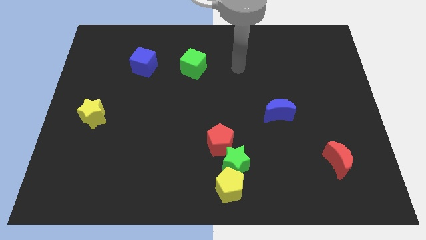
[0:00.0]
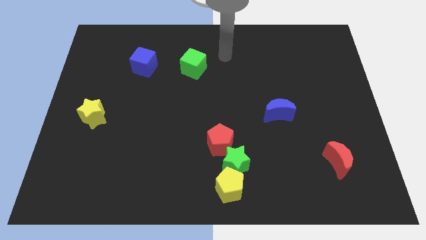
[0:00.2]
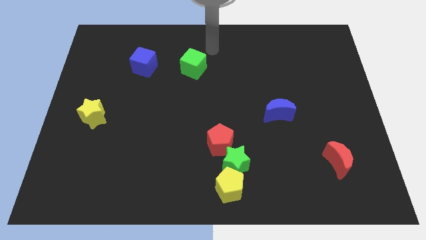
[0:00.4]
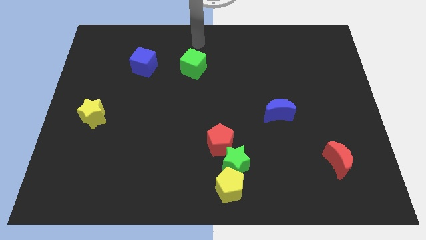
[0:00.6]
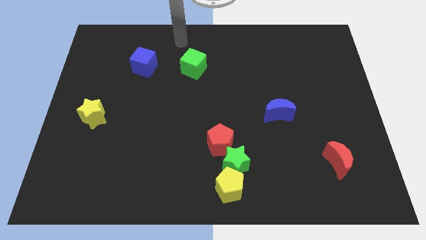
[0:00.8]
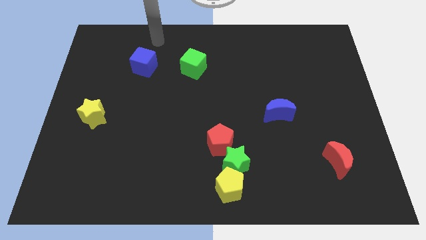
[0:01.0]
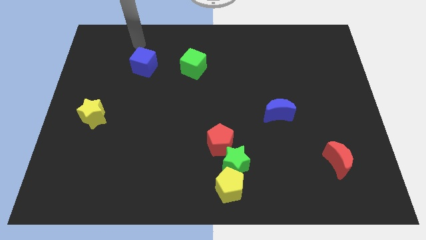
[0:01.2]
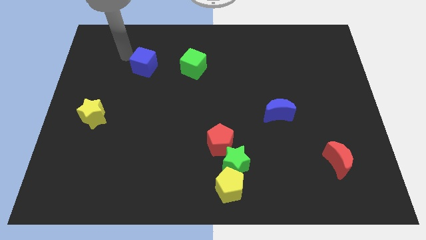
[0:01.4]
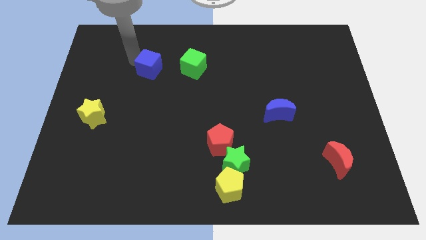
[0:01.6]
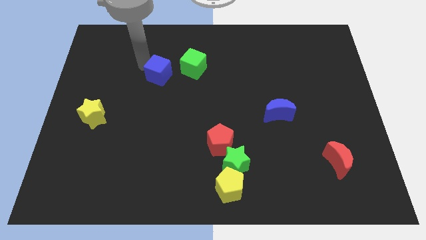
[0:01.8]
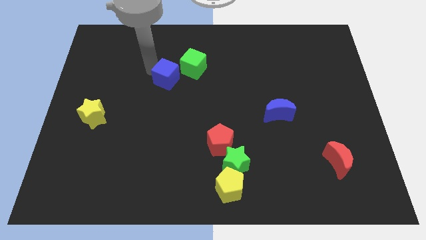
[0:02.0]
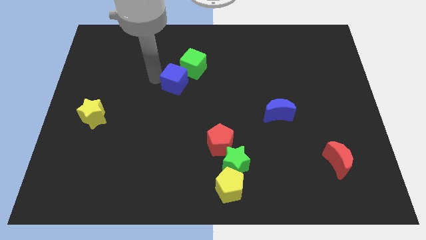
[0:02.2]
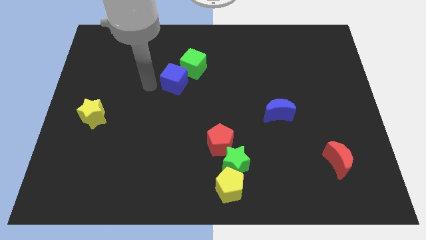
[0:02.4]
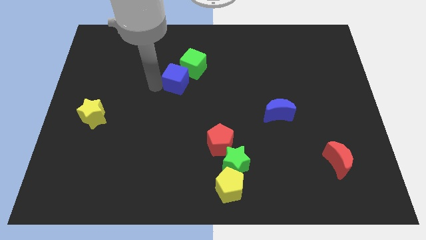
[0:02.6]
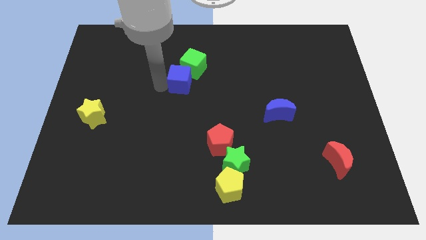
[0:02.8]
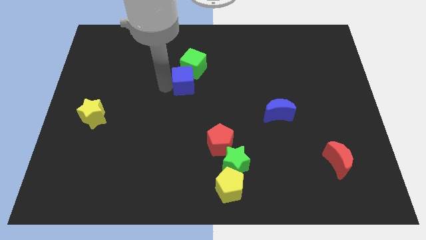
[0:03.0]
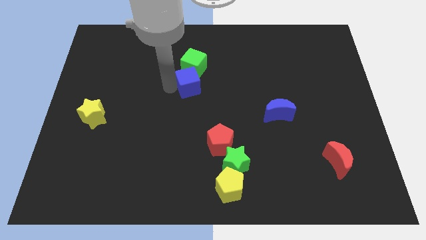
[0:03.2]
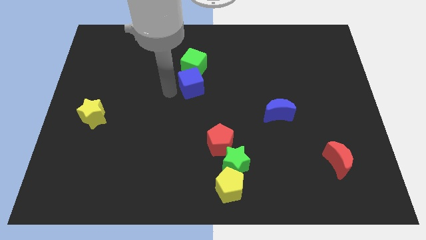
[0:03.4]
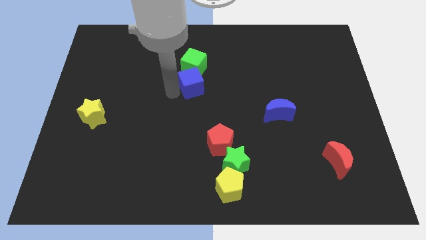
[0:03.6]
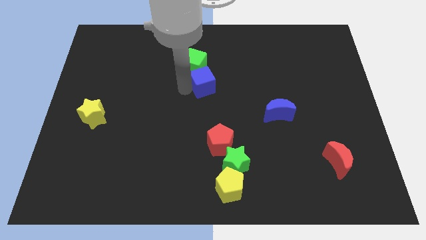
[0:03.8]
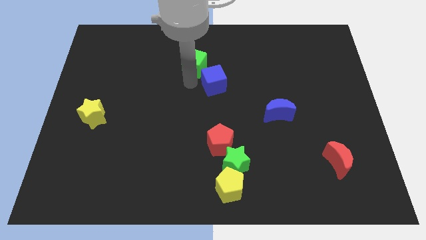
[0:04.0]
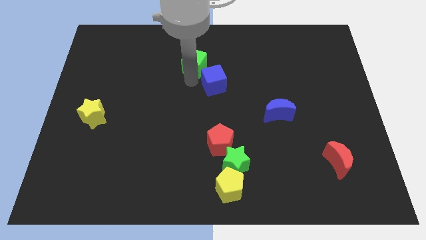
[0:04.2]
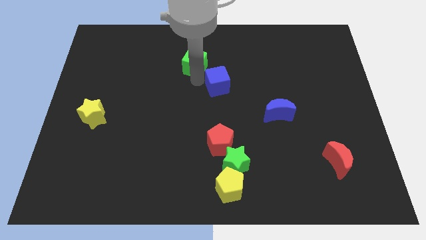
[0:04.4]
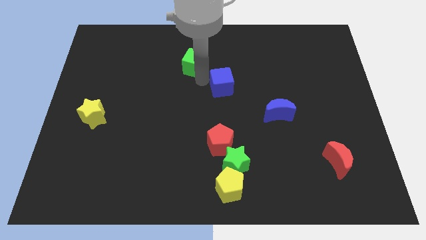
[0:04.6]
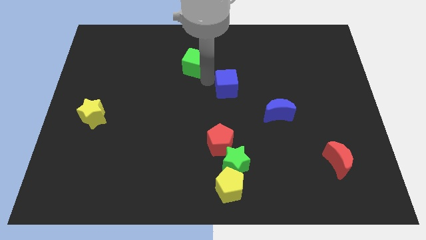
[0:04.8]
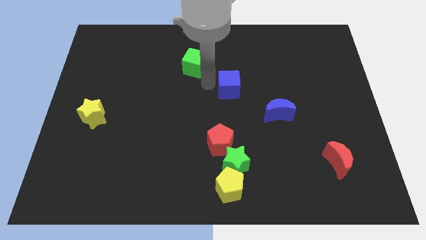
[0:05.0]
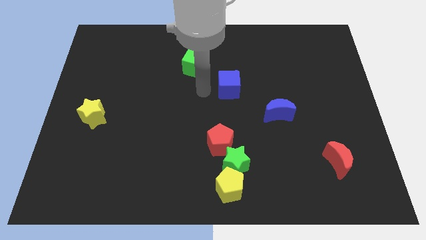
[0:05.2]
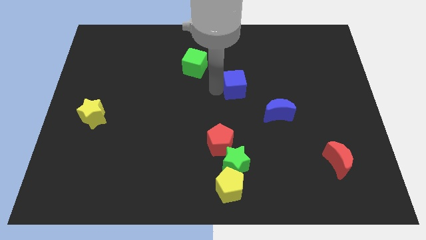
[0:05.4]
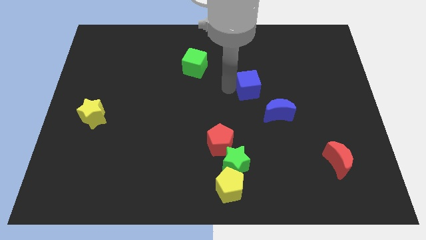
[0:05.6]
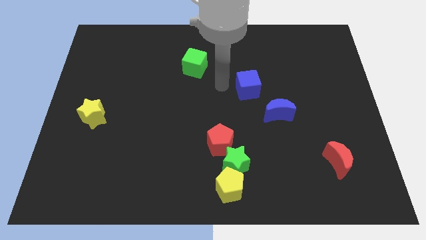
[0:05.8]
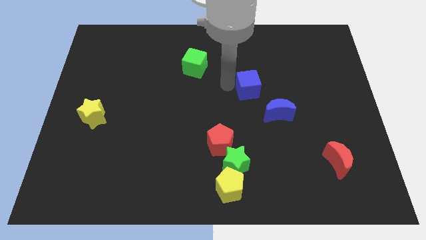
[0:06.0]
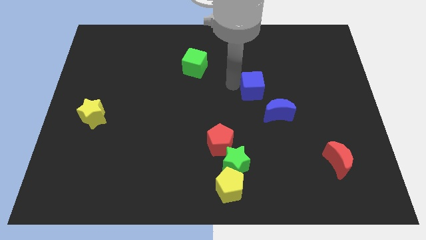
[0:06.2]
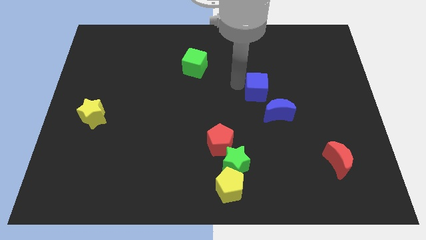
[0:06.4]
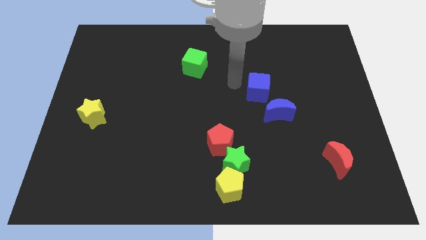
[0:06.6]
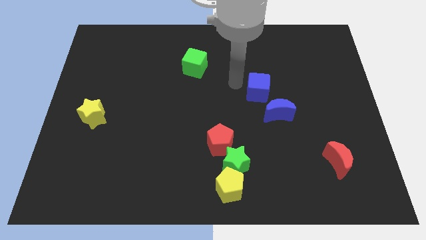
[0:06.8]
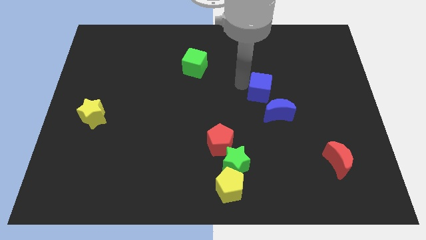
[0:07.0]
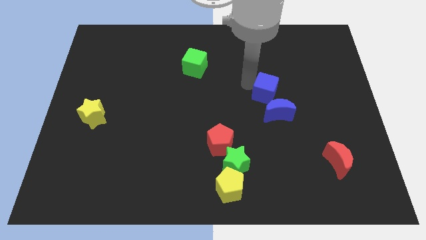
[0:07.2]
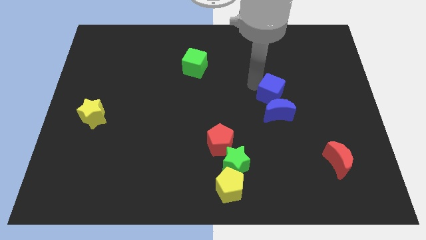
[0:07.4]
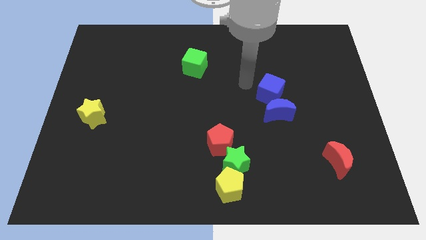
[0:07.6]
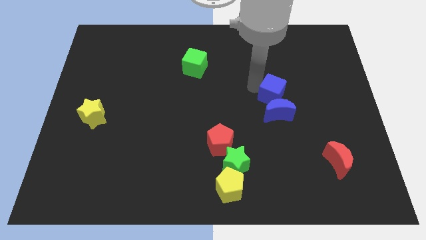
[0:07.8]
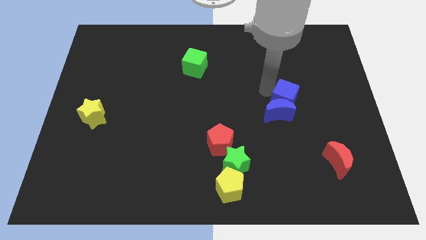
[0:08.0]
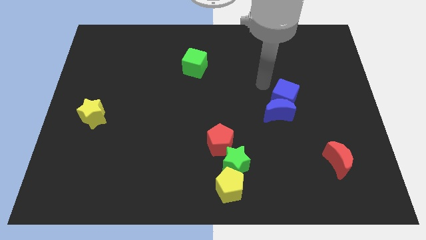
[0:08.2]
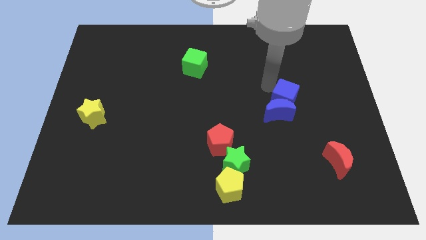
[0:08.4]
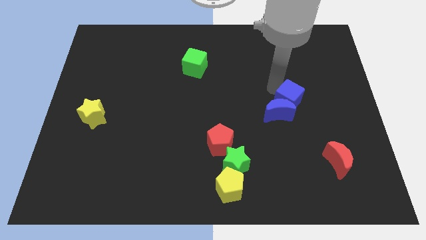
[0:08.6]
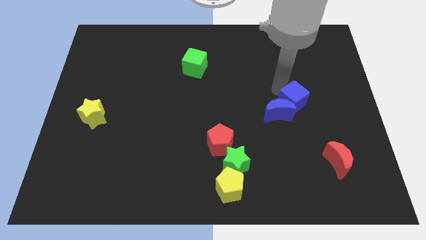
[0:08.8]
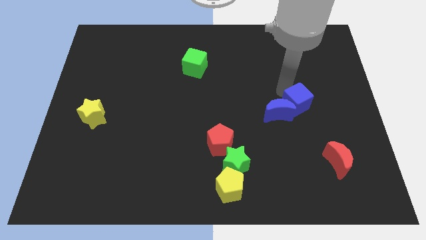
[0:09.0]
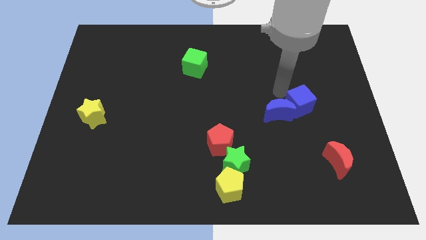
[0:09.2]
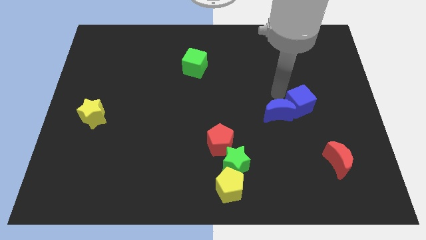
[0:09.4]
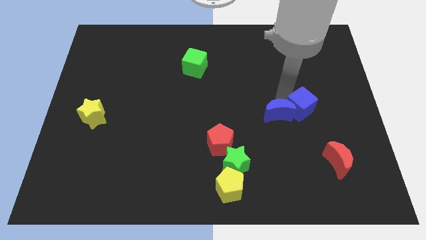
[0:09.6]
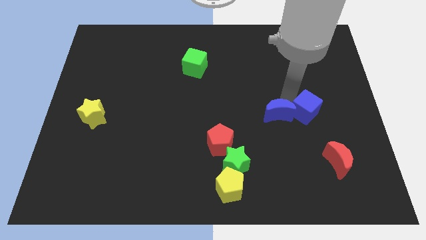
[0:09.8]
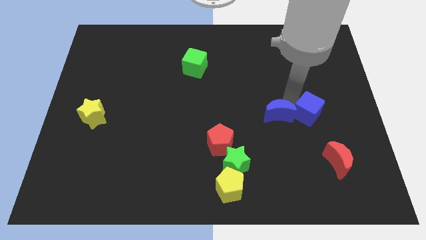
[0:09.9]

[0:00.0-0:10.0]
put the blue cube to the top of the red moon

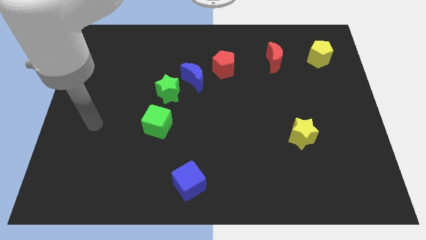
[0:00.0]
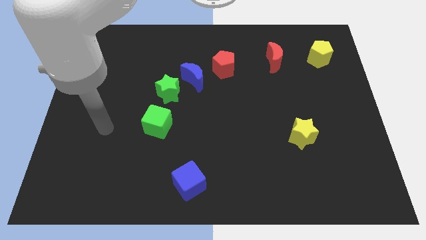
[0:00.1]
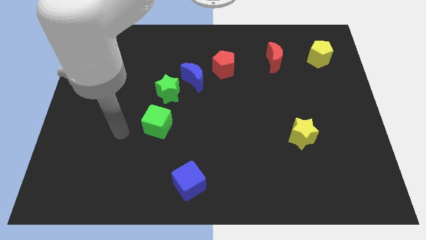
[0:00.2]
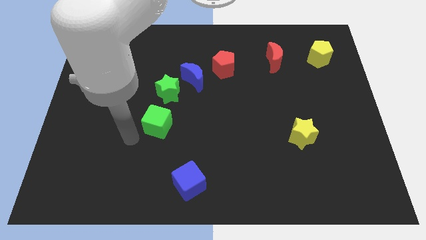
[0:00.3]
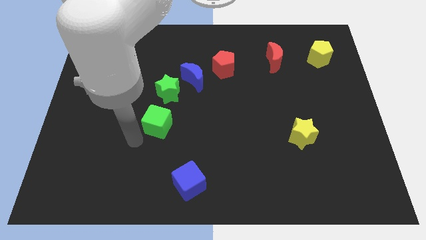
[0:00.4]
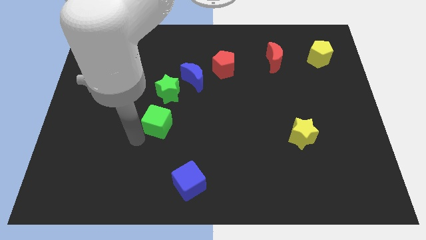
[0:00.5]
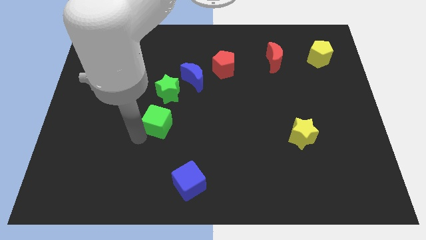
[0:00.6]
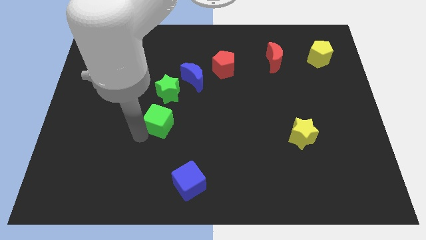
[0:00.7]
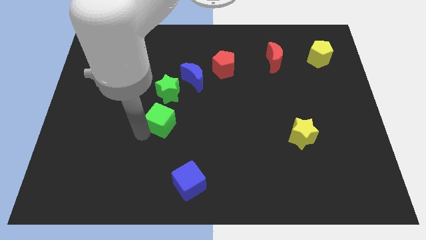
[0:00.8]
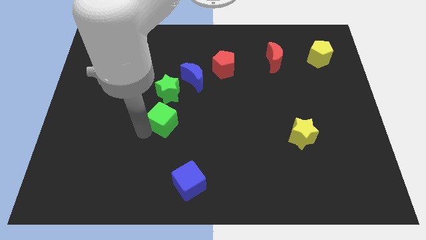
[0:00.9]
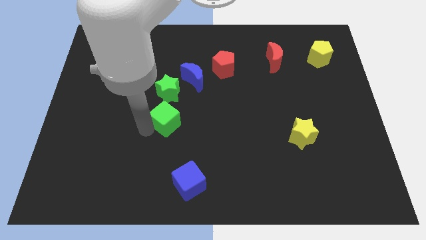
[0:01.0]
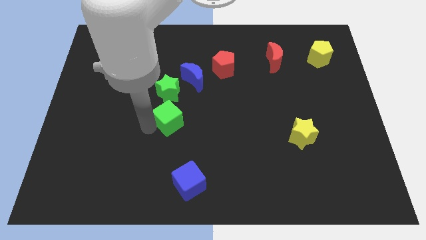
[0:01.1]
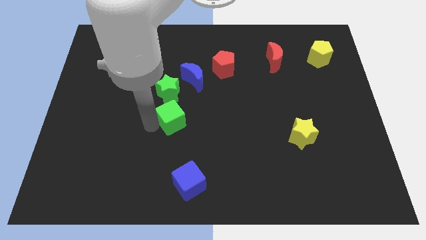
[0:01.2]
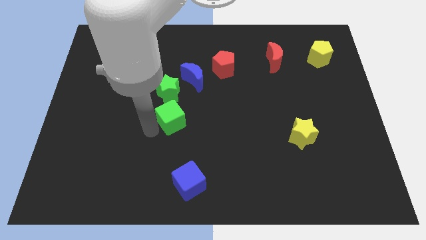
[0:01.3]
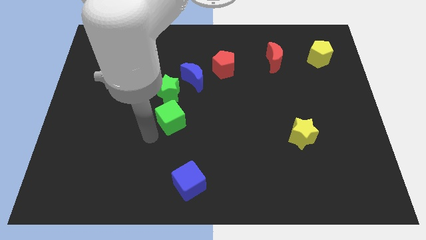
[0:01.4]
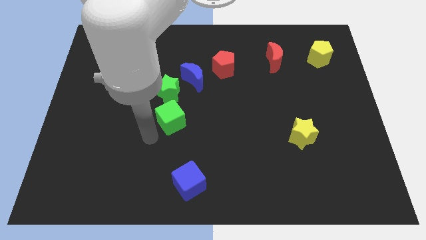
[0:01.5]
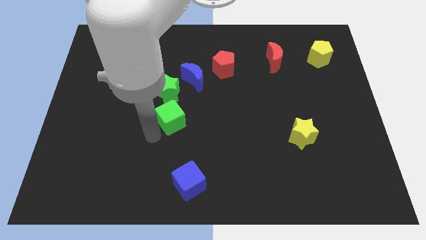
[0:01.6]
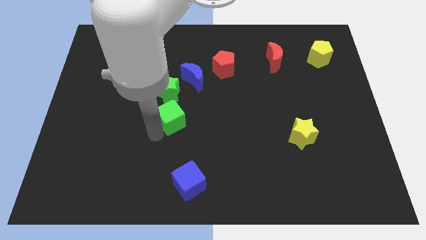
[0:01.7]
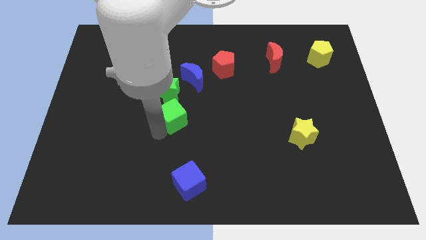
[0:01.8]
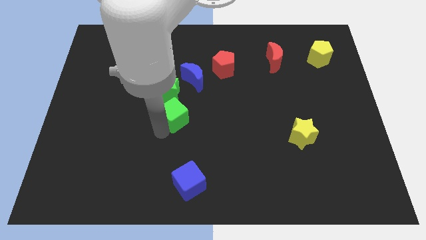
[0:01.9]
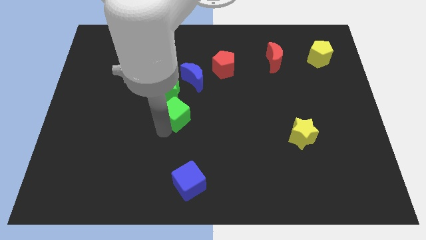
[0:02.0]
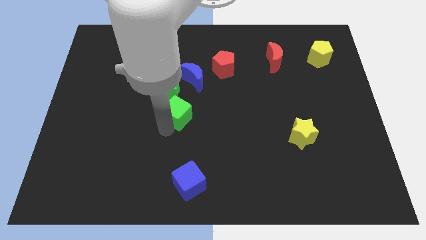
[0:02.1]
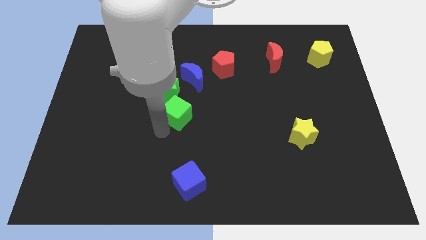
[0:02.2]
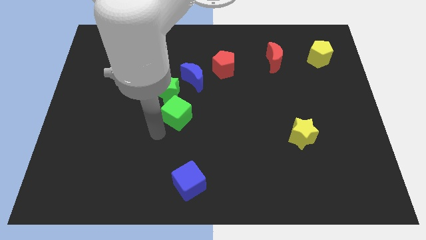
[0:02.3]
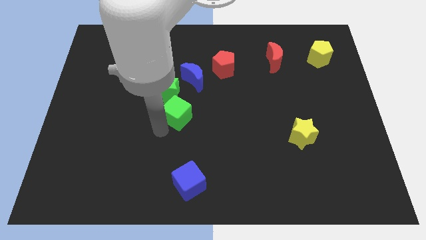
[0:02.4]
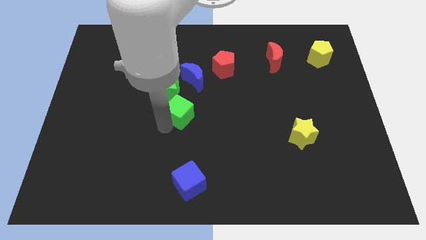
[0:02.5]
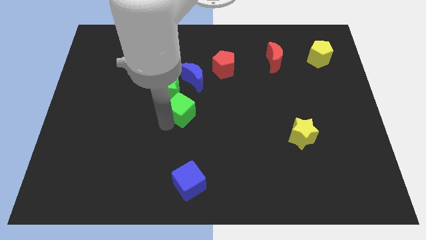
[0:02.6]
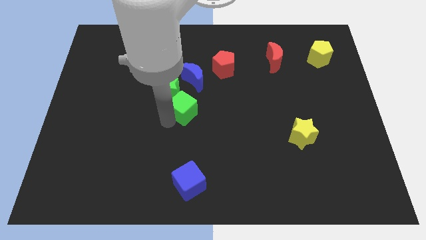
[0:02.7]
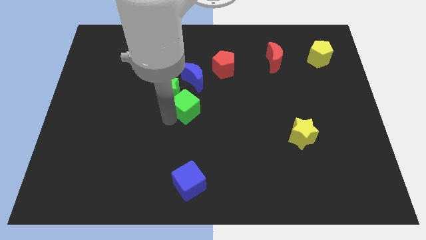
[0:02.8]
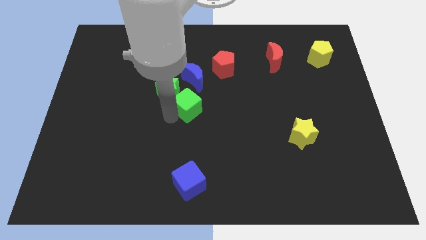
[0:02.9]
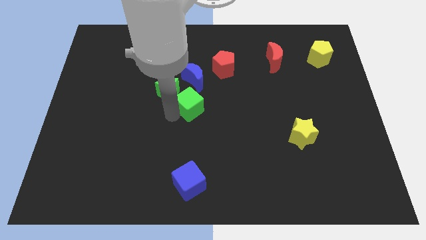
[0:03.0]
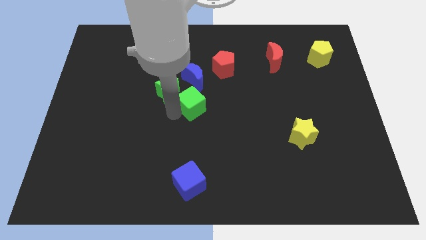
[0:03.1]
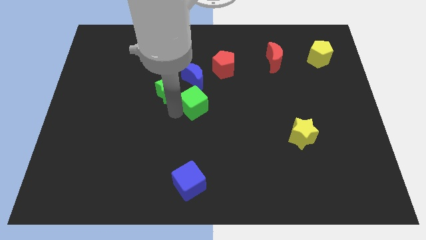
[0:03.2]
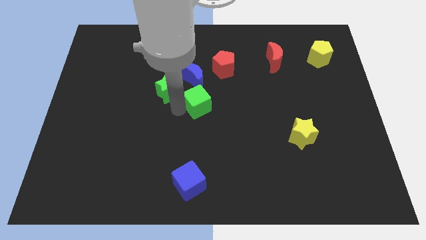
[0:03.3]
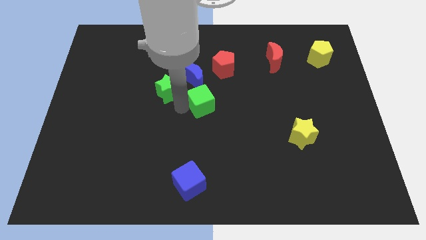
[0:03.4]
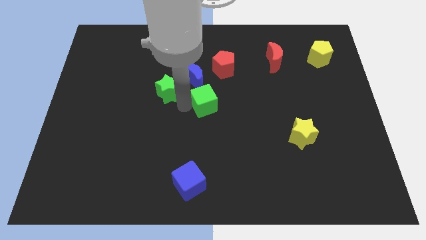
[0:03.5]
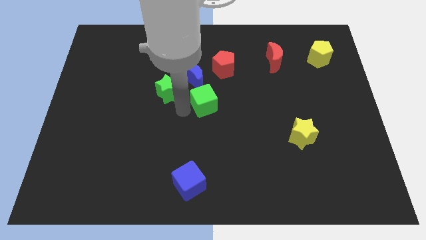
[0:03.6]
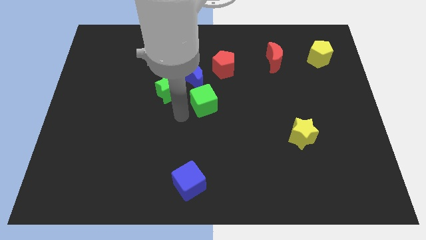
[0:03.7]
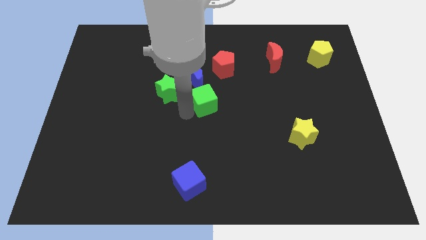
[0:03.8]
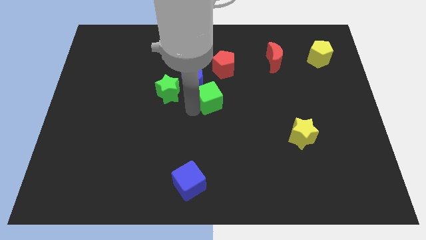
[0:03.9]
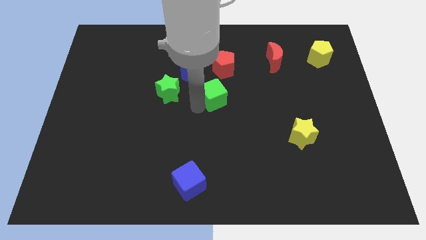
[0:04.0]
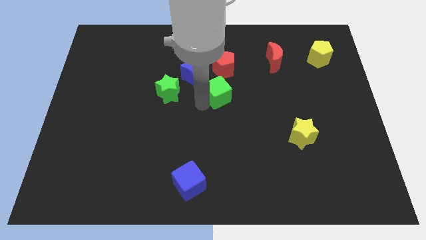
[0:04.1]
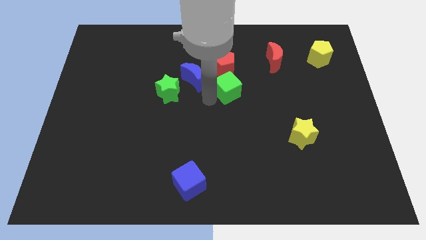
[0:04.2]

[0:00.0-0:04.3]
slide the green cube diagonally down and to the right of the red pentagon
